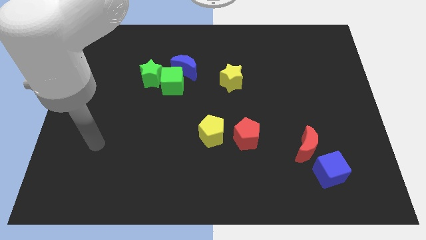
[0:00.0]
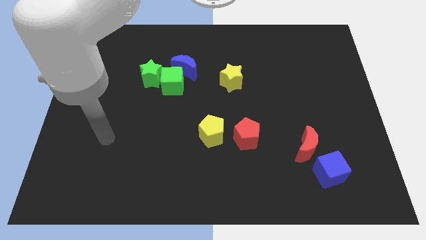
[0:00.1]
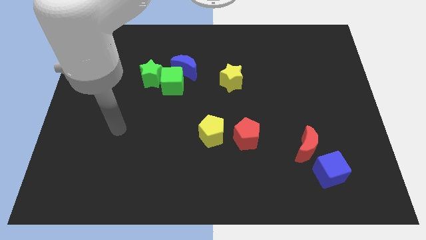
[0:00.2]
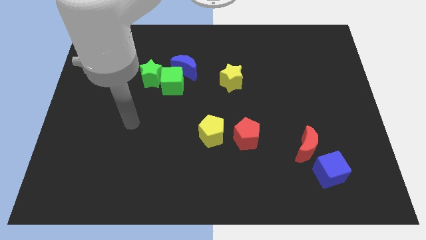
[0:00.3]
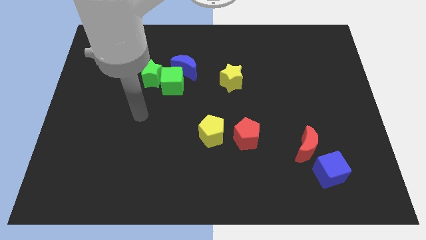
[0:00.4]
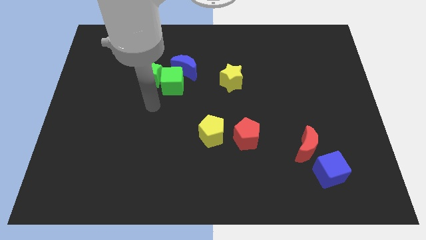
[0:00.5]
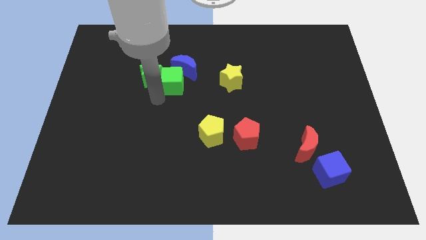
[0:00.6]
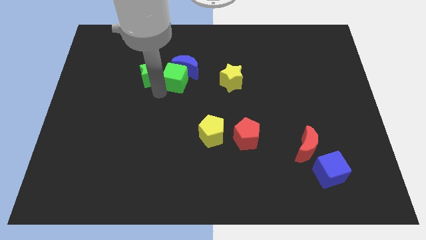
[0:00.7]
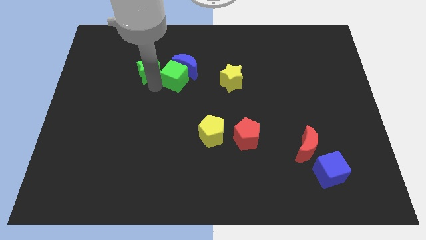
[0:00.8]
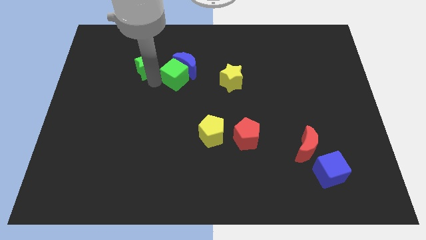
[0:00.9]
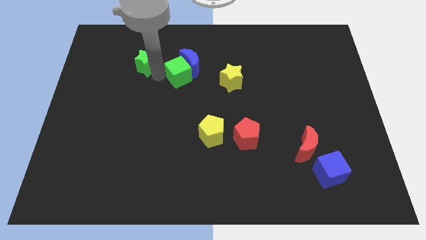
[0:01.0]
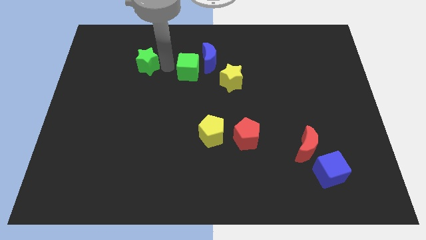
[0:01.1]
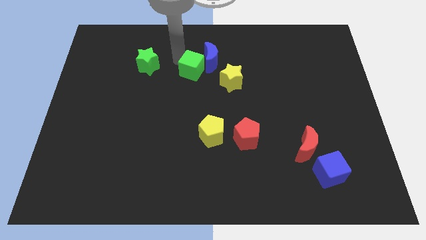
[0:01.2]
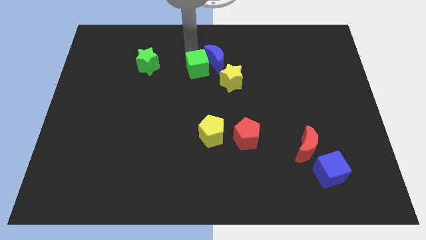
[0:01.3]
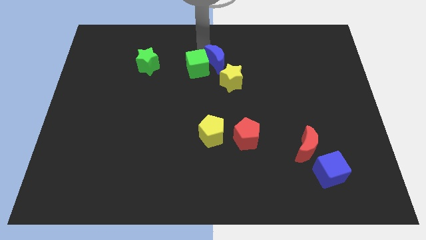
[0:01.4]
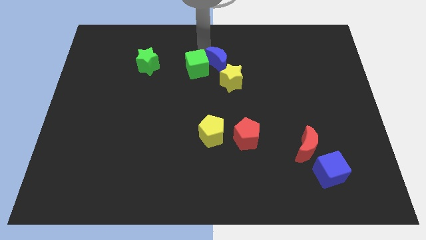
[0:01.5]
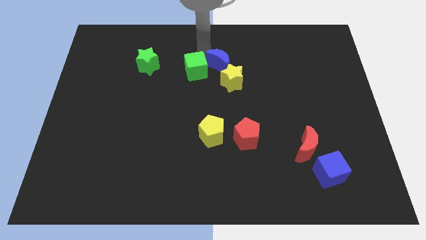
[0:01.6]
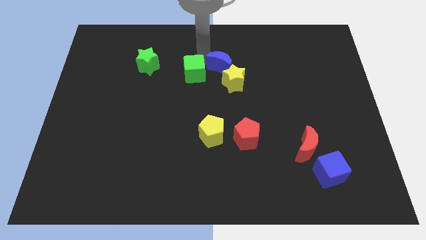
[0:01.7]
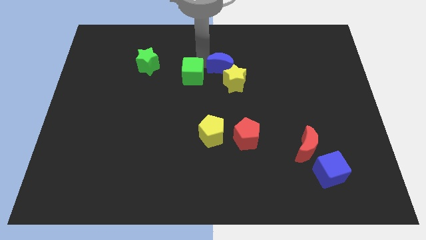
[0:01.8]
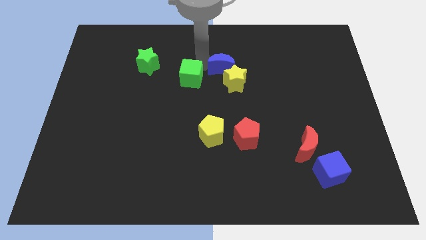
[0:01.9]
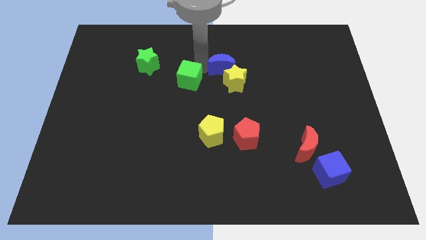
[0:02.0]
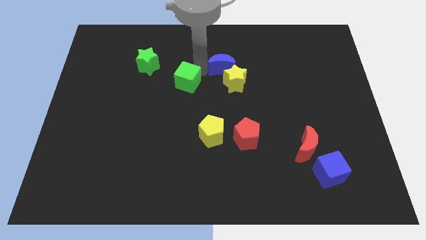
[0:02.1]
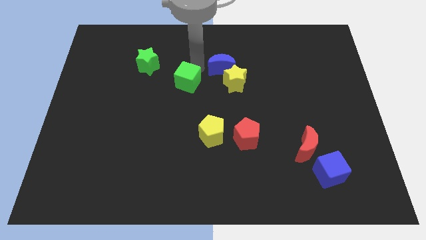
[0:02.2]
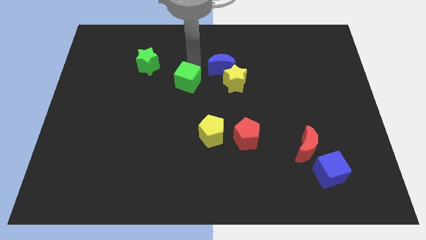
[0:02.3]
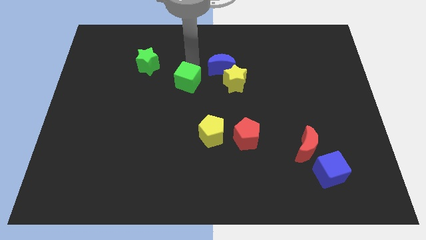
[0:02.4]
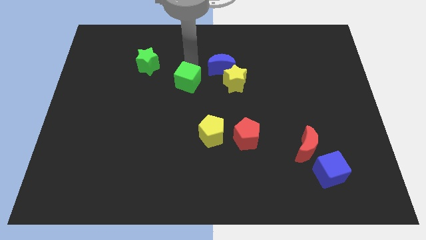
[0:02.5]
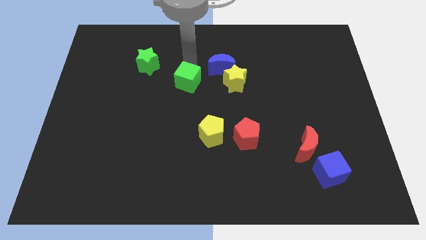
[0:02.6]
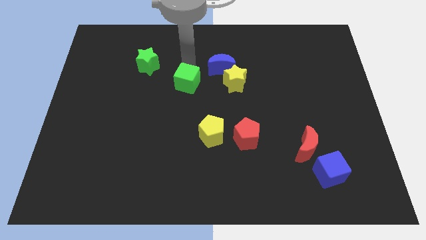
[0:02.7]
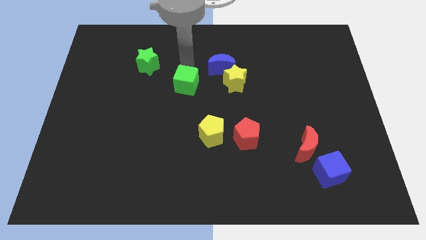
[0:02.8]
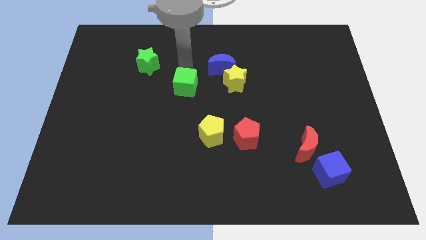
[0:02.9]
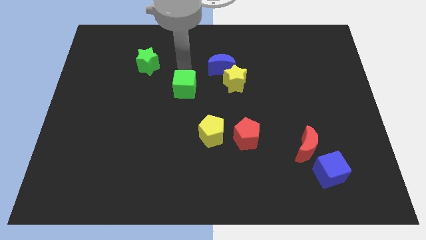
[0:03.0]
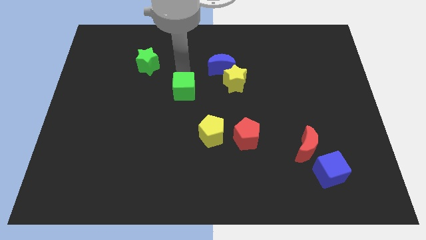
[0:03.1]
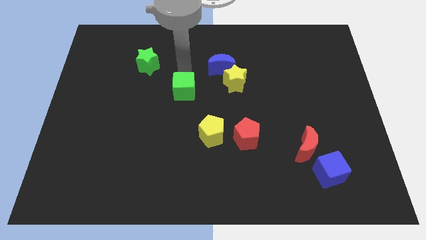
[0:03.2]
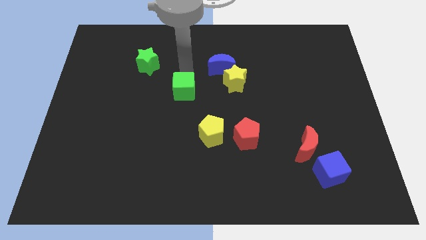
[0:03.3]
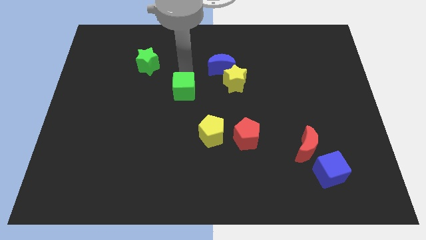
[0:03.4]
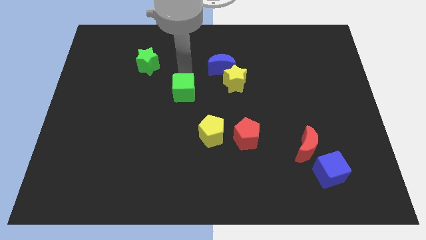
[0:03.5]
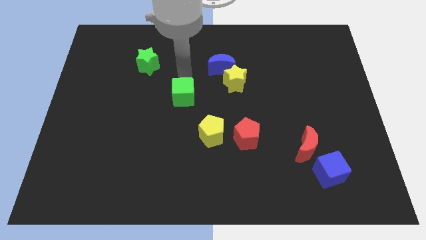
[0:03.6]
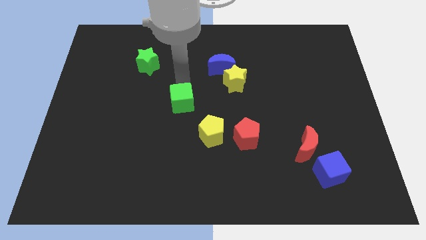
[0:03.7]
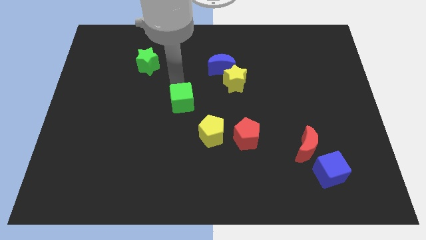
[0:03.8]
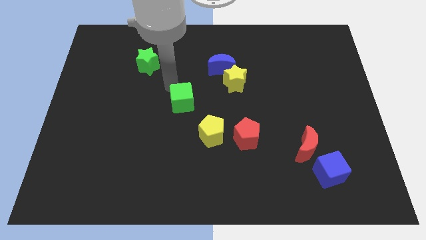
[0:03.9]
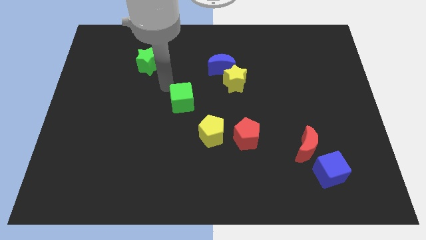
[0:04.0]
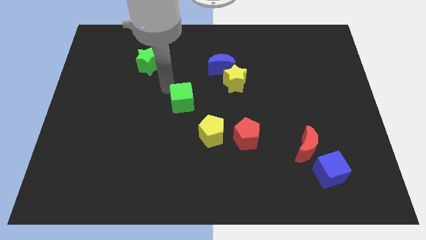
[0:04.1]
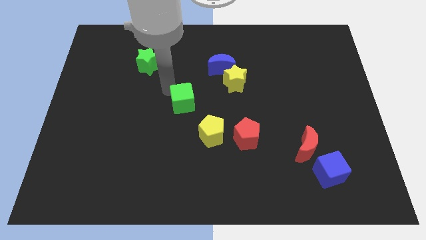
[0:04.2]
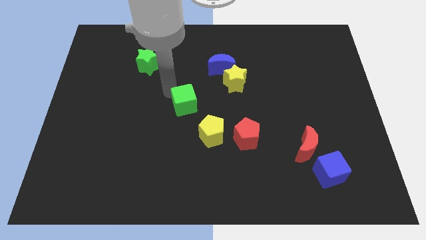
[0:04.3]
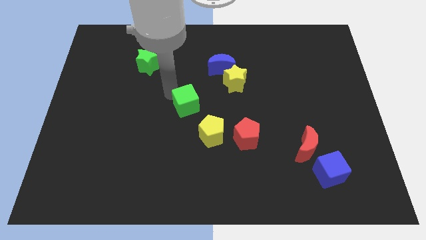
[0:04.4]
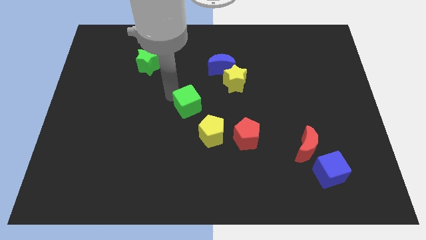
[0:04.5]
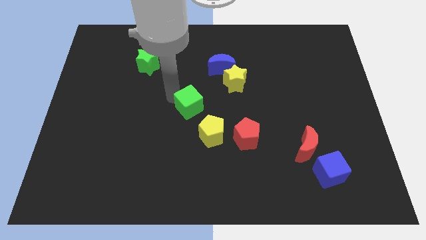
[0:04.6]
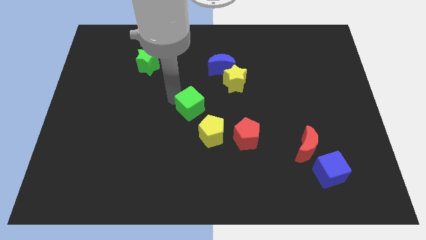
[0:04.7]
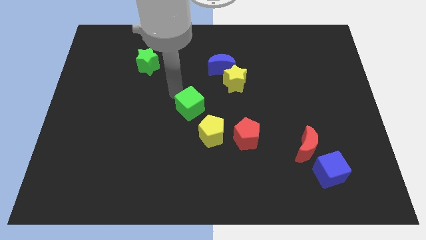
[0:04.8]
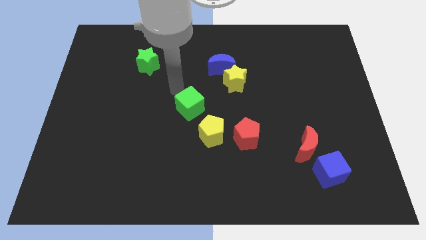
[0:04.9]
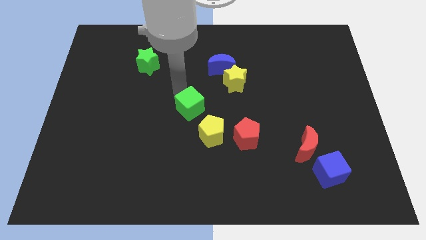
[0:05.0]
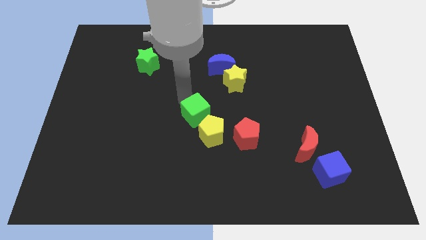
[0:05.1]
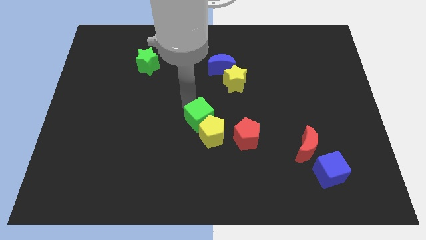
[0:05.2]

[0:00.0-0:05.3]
push the green cube to the yellow pentagon

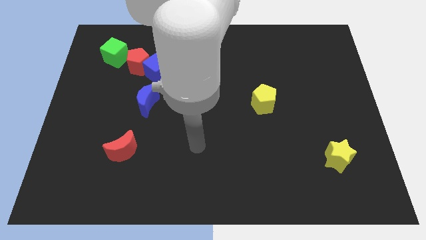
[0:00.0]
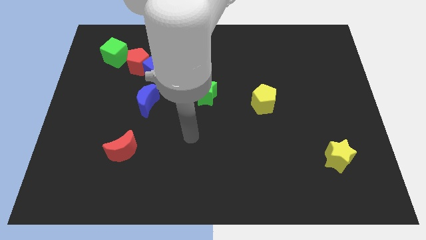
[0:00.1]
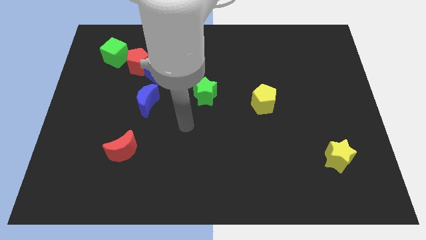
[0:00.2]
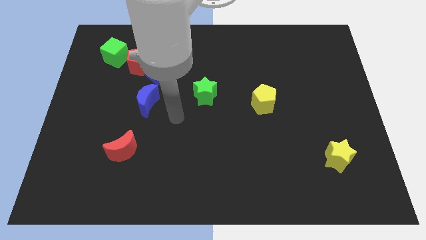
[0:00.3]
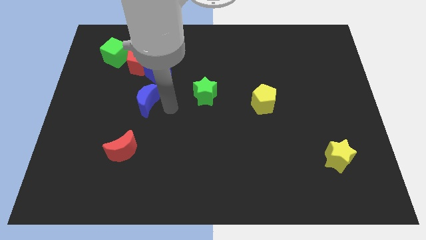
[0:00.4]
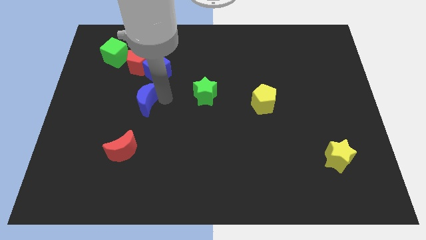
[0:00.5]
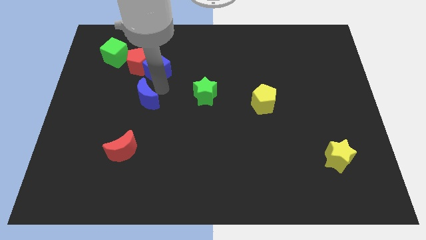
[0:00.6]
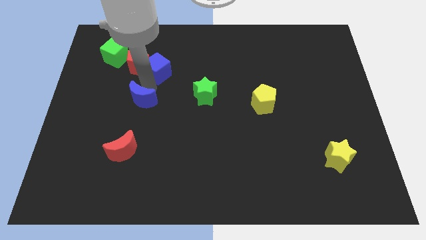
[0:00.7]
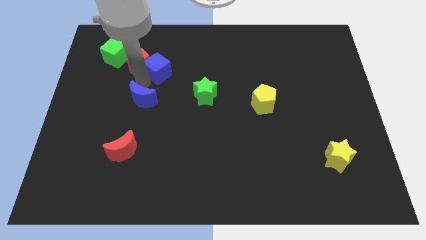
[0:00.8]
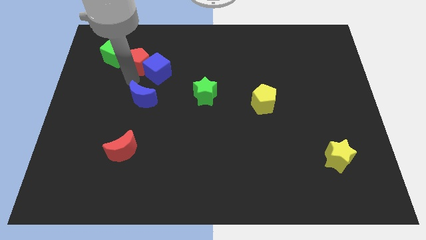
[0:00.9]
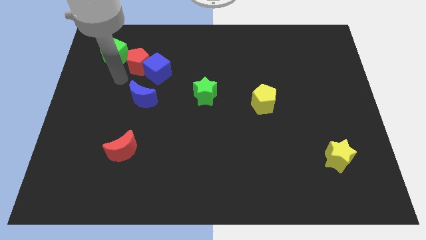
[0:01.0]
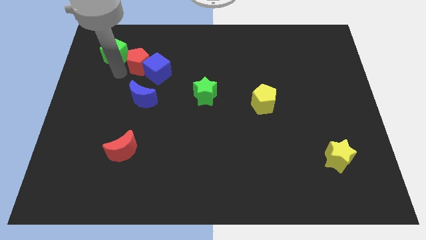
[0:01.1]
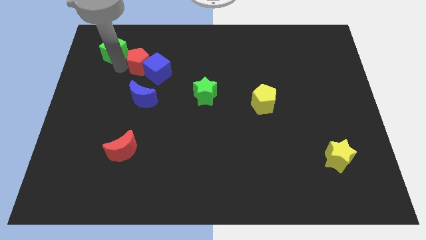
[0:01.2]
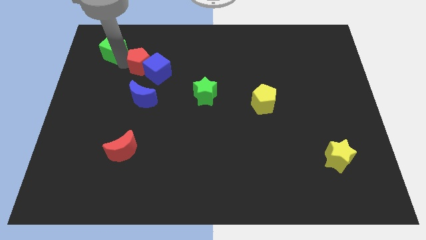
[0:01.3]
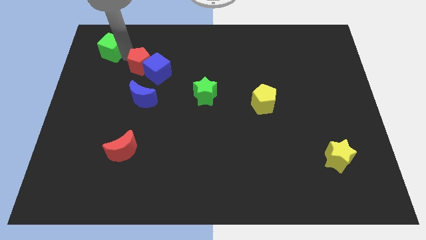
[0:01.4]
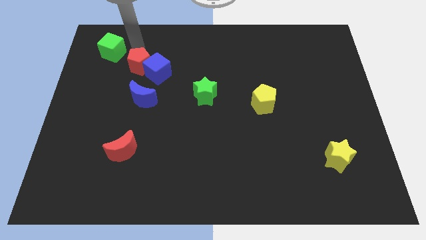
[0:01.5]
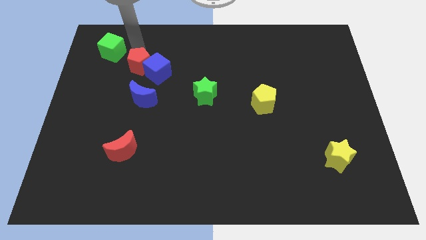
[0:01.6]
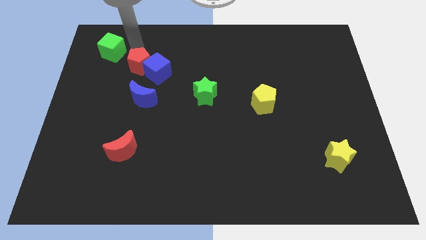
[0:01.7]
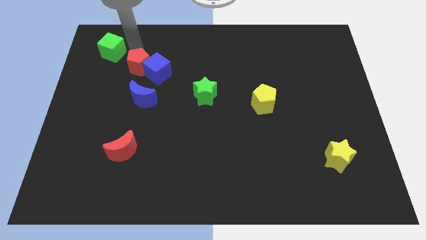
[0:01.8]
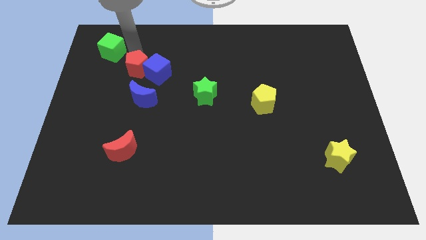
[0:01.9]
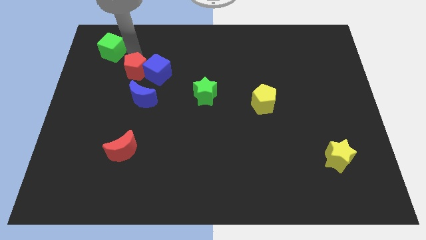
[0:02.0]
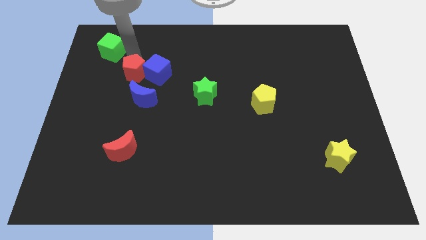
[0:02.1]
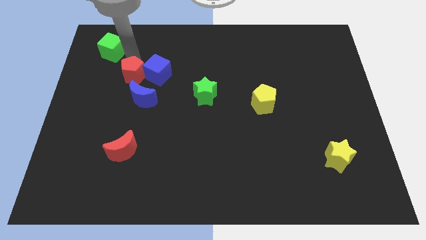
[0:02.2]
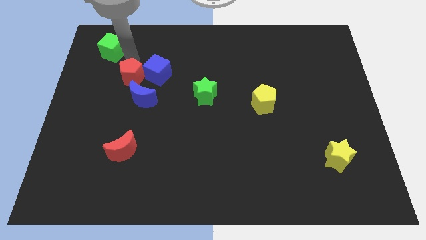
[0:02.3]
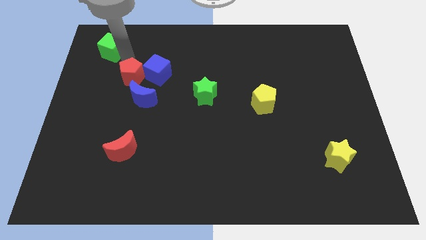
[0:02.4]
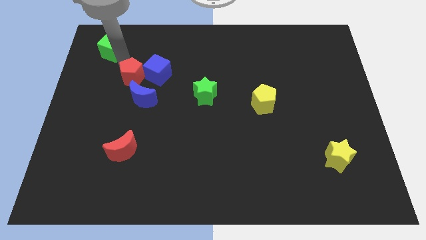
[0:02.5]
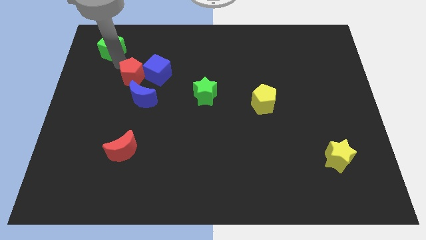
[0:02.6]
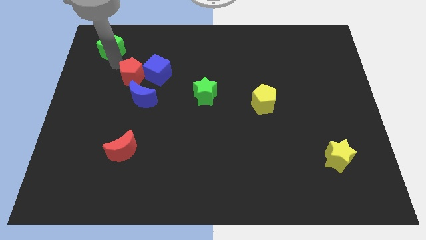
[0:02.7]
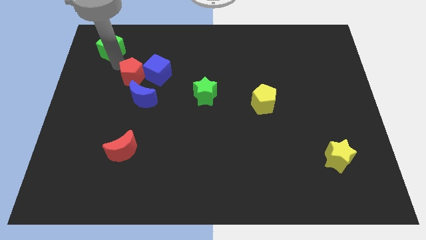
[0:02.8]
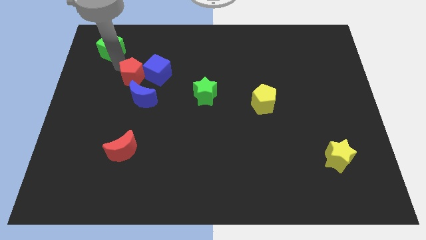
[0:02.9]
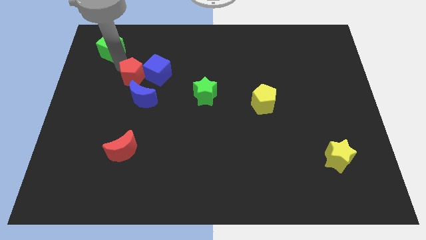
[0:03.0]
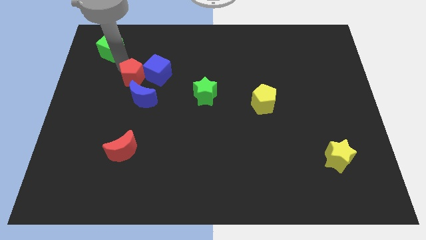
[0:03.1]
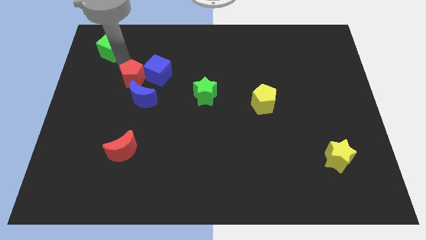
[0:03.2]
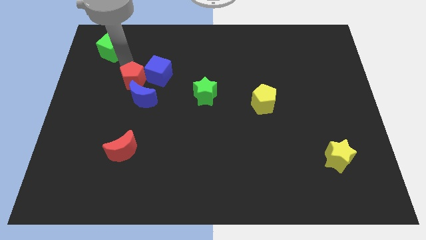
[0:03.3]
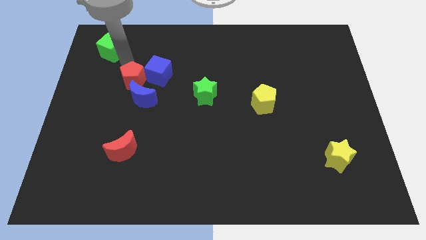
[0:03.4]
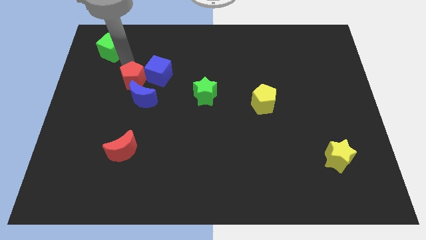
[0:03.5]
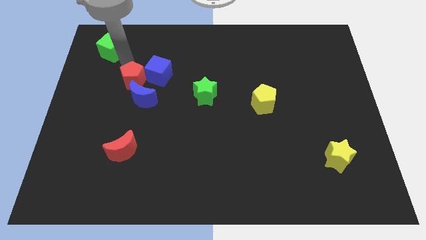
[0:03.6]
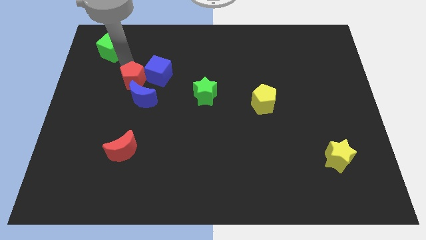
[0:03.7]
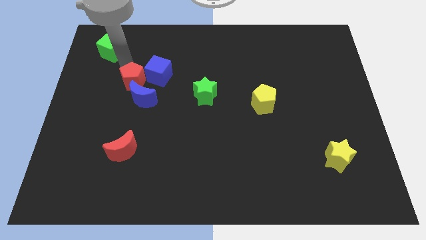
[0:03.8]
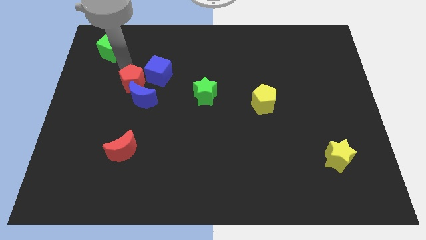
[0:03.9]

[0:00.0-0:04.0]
put the red pentagon towards the blue moon
